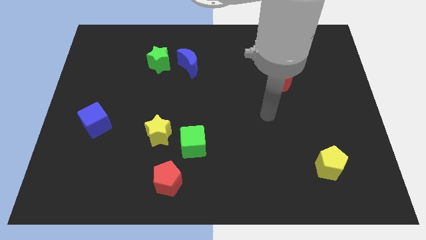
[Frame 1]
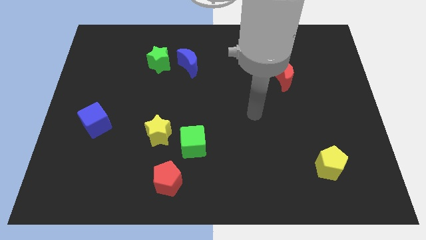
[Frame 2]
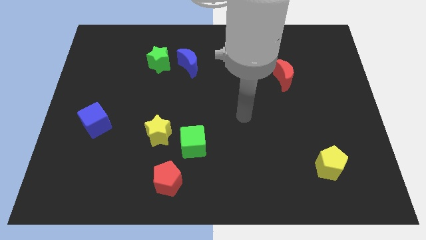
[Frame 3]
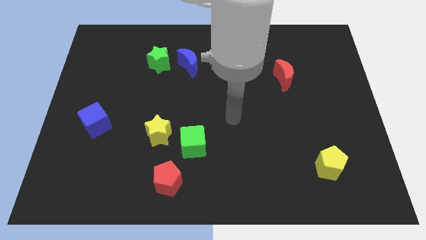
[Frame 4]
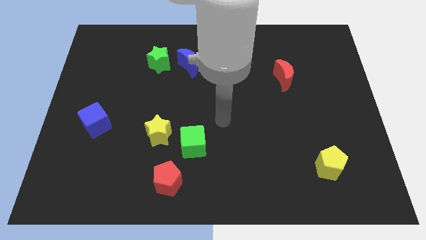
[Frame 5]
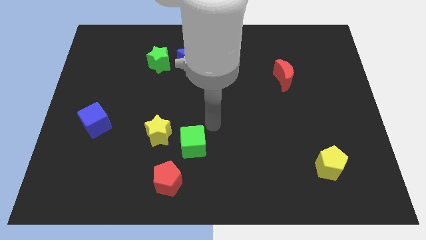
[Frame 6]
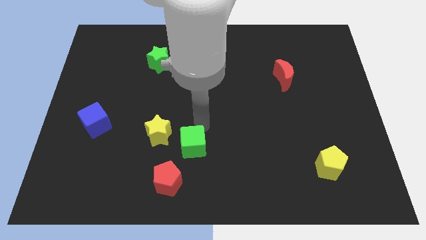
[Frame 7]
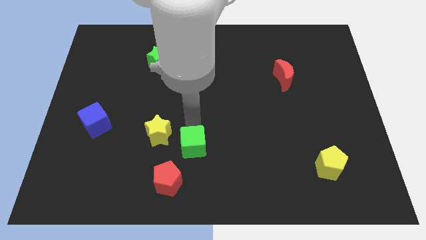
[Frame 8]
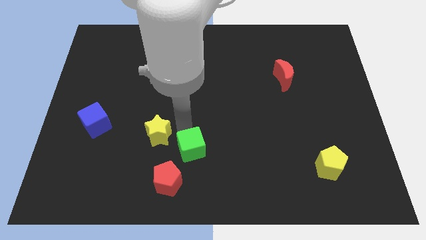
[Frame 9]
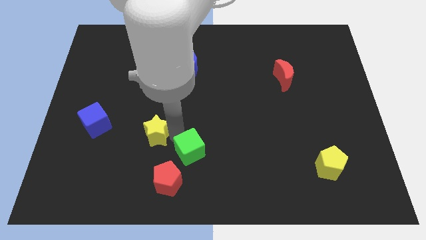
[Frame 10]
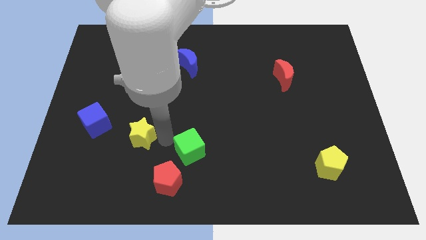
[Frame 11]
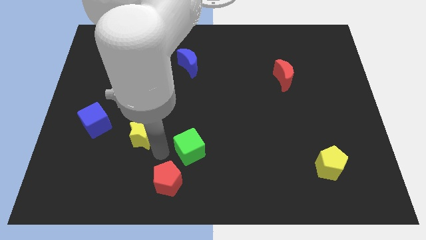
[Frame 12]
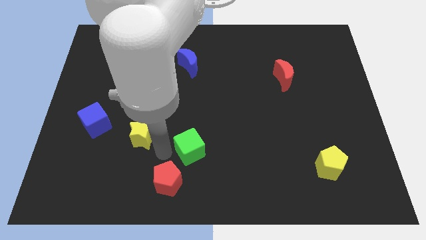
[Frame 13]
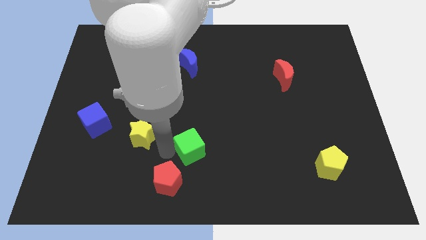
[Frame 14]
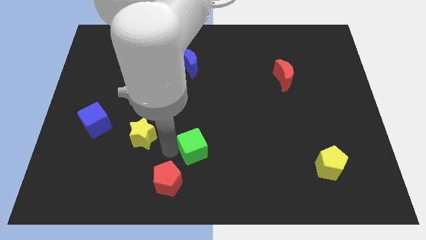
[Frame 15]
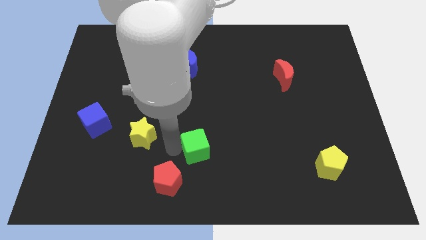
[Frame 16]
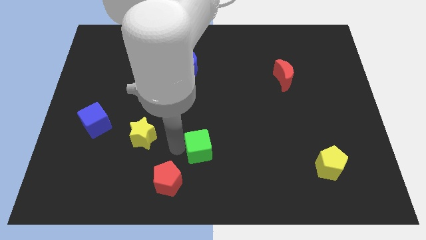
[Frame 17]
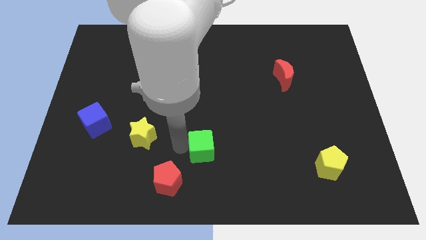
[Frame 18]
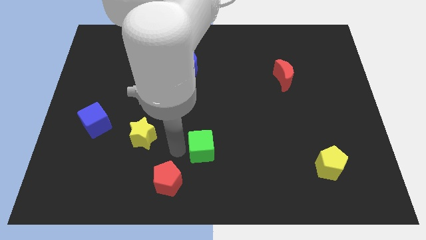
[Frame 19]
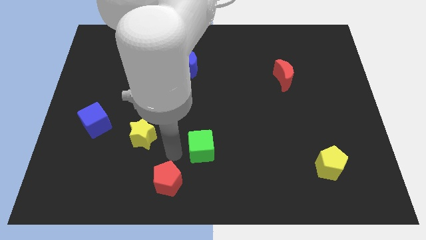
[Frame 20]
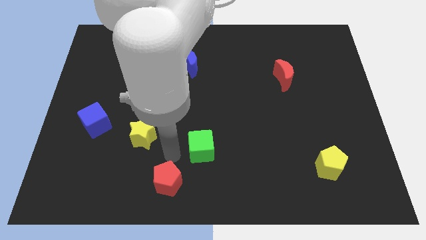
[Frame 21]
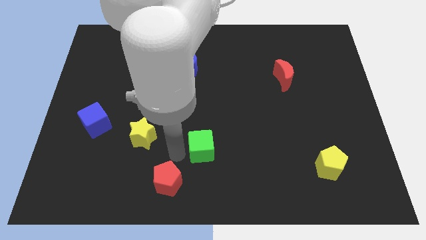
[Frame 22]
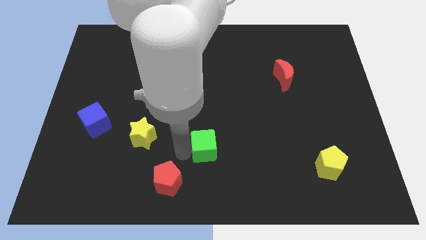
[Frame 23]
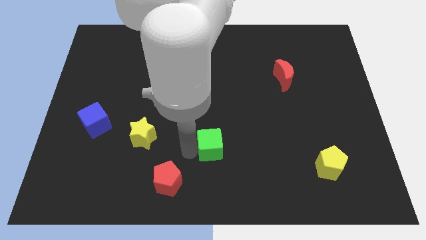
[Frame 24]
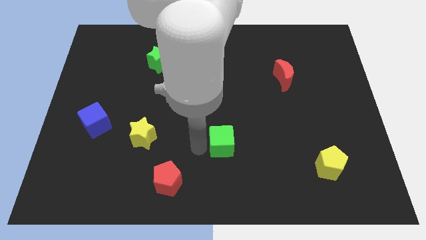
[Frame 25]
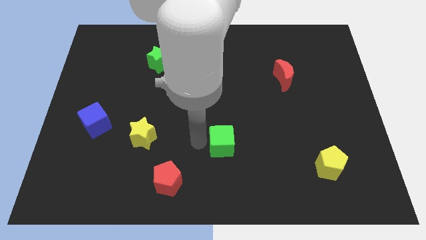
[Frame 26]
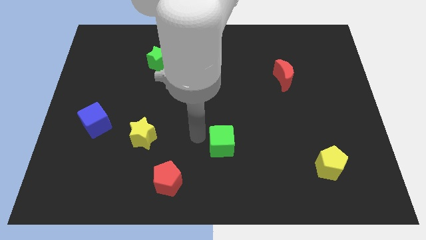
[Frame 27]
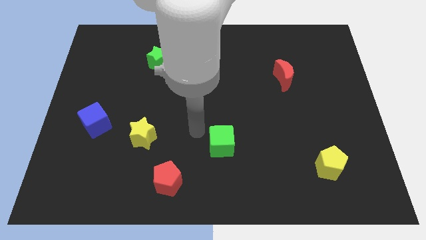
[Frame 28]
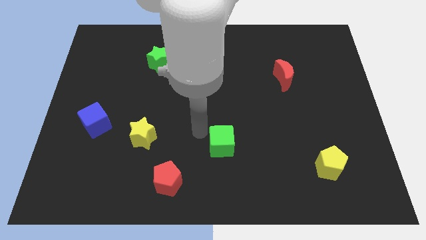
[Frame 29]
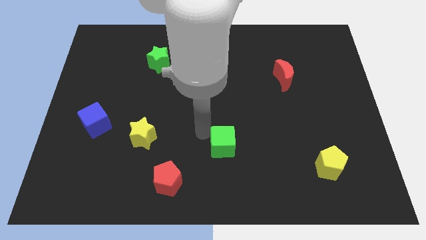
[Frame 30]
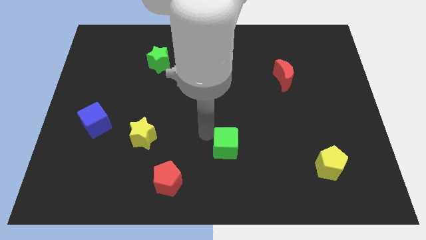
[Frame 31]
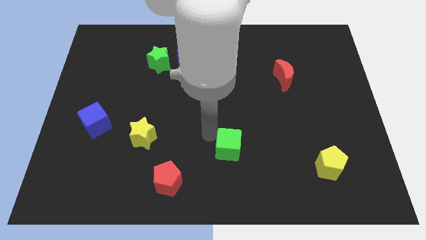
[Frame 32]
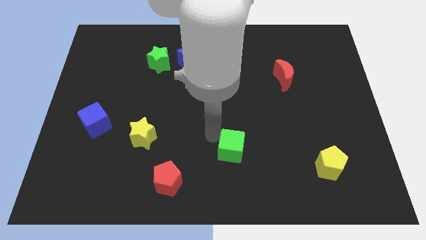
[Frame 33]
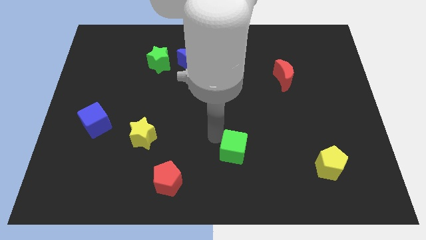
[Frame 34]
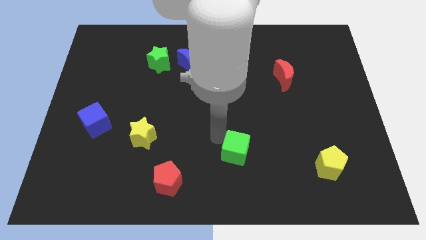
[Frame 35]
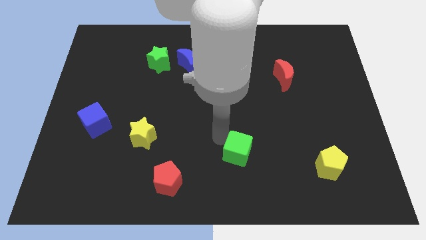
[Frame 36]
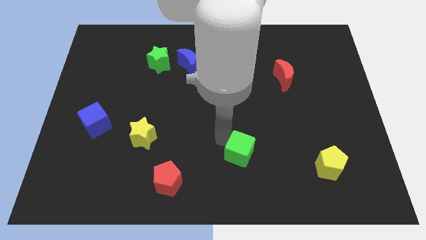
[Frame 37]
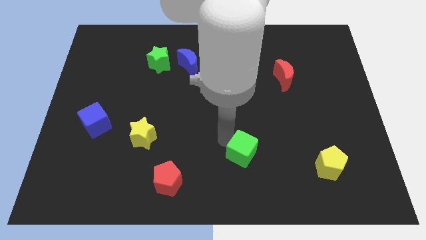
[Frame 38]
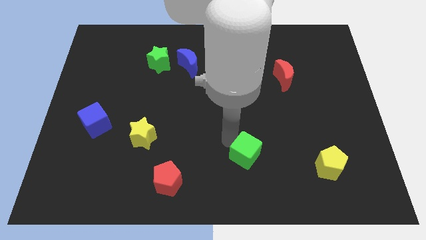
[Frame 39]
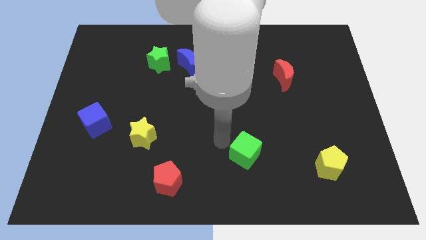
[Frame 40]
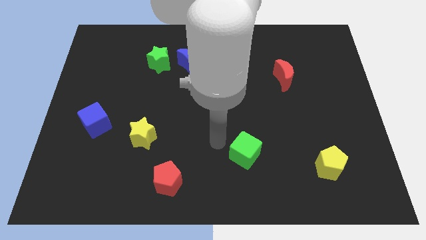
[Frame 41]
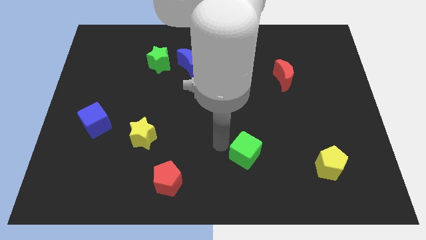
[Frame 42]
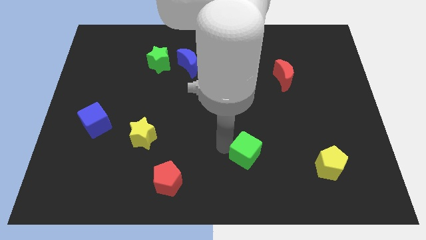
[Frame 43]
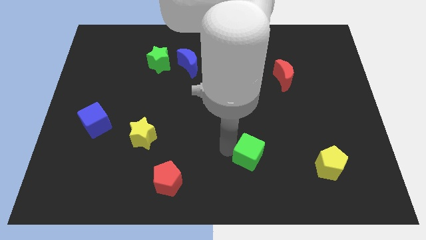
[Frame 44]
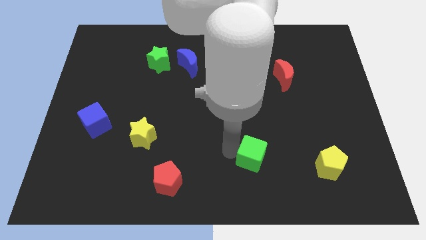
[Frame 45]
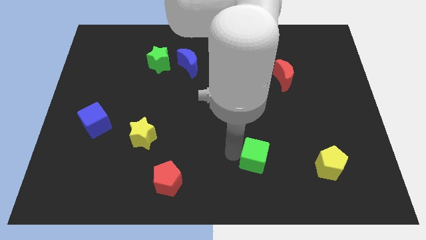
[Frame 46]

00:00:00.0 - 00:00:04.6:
push the green cube just left of the yellow pentagon

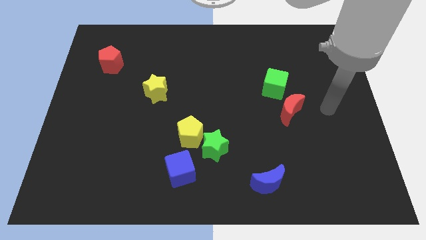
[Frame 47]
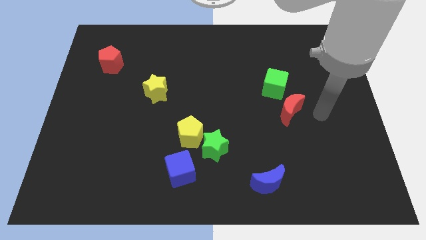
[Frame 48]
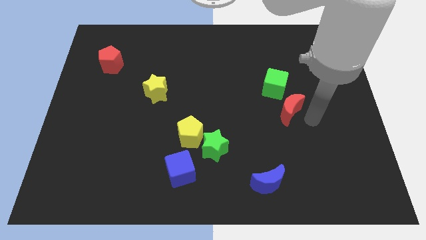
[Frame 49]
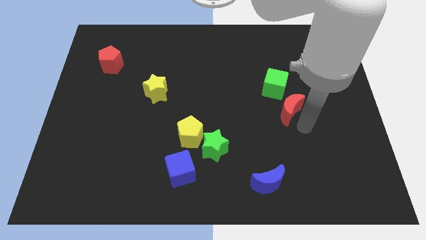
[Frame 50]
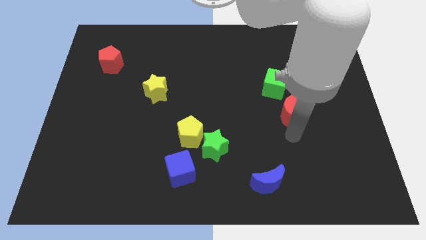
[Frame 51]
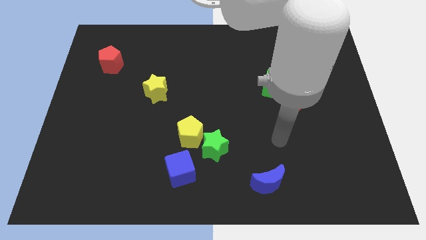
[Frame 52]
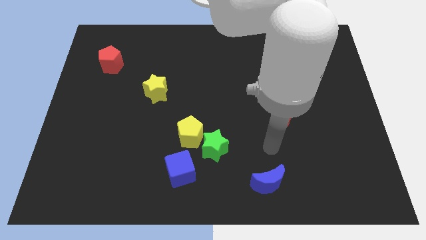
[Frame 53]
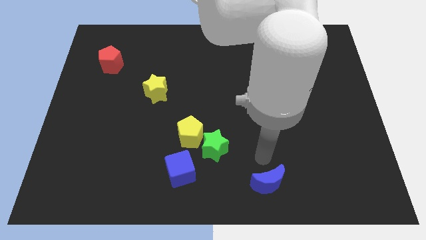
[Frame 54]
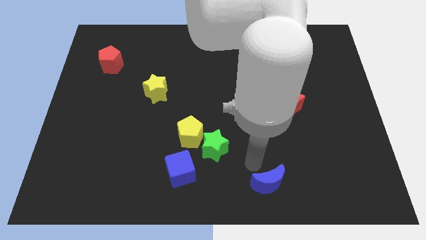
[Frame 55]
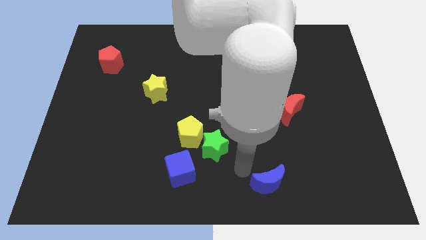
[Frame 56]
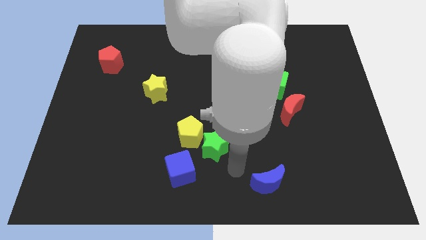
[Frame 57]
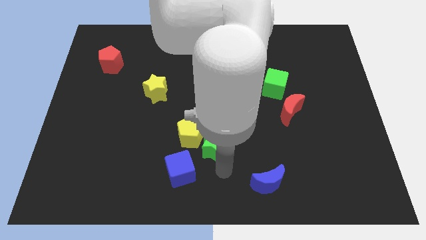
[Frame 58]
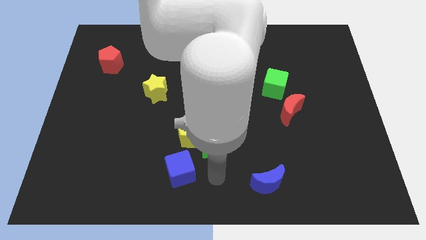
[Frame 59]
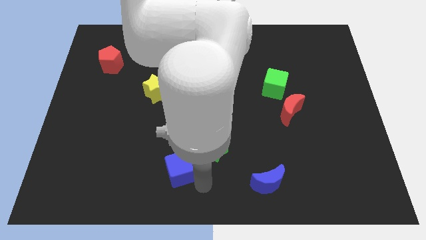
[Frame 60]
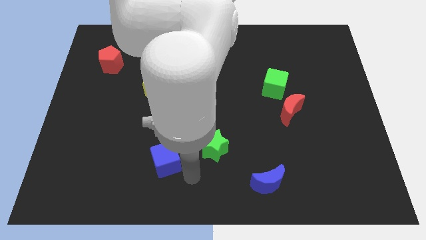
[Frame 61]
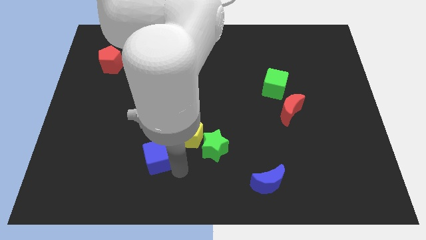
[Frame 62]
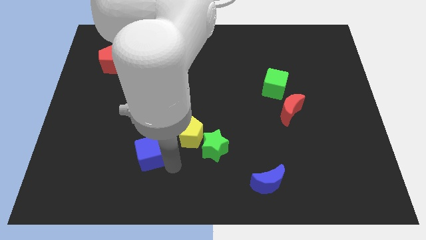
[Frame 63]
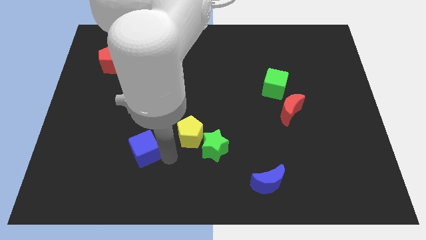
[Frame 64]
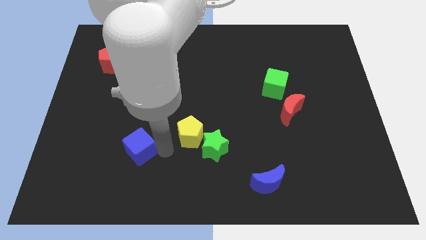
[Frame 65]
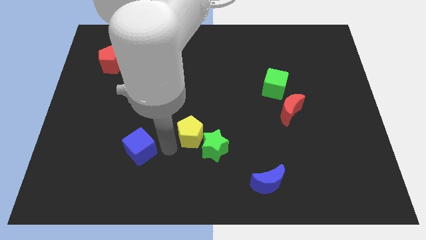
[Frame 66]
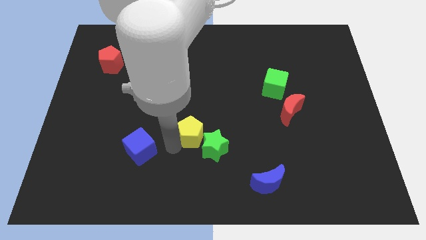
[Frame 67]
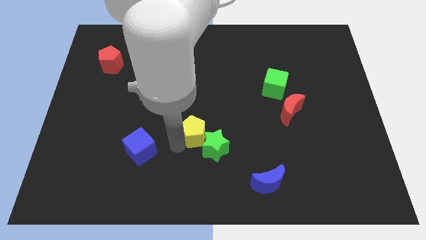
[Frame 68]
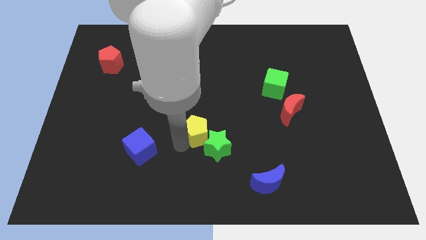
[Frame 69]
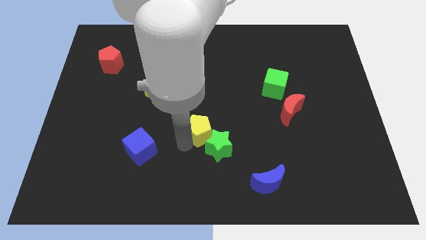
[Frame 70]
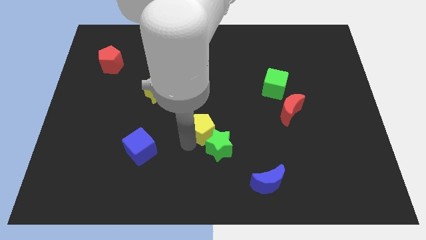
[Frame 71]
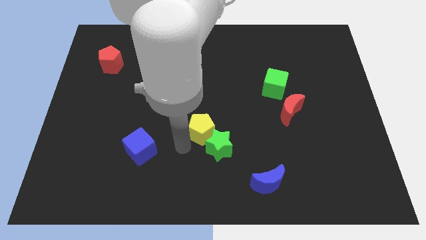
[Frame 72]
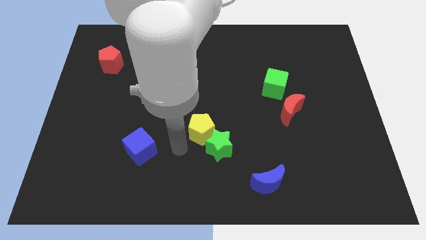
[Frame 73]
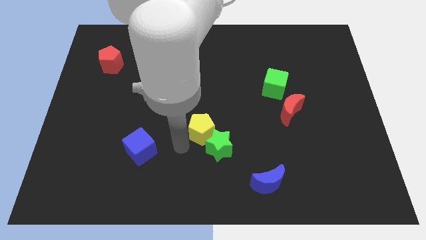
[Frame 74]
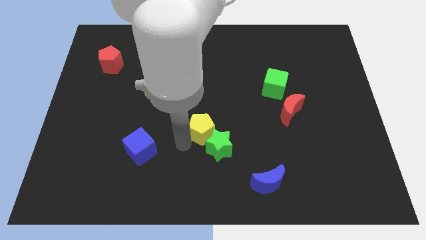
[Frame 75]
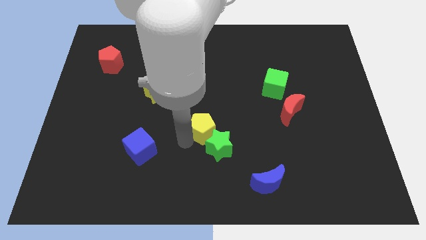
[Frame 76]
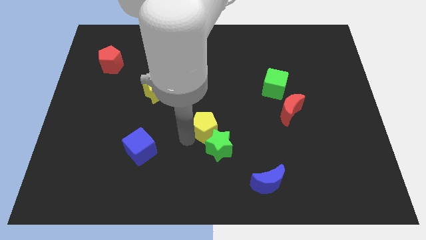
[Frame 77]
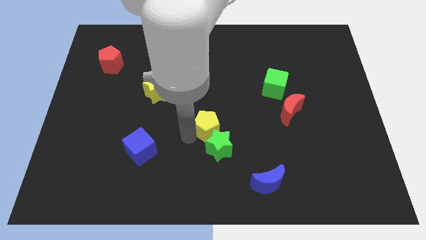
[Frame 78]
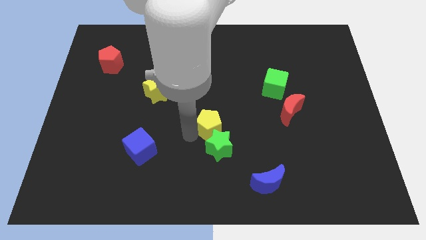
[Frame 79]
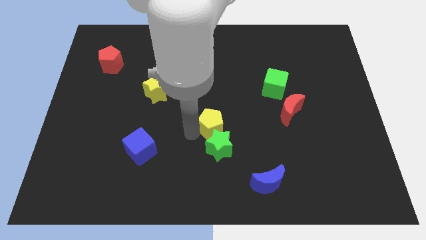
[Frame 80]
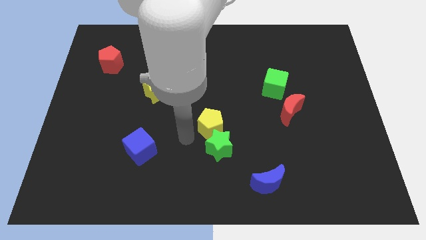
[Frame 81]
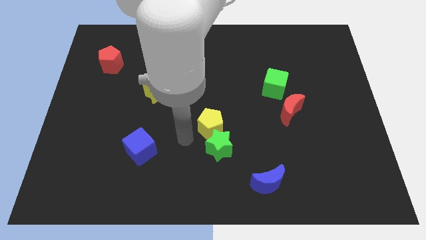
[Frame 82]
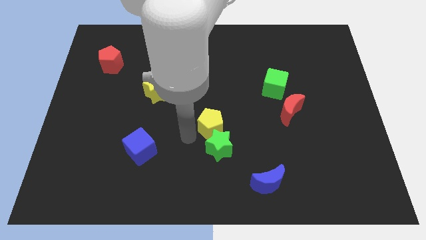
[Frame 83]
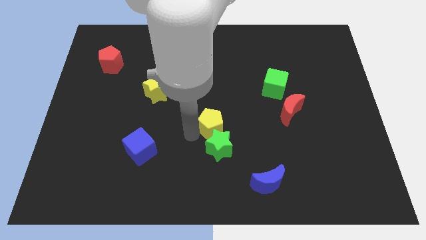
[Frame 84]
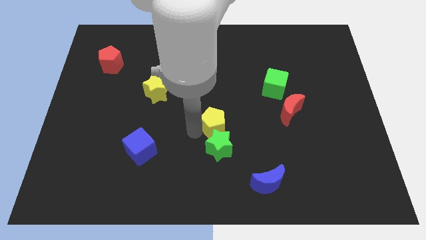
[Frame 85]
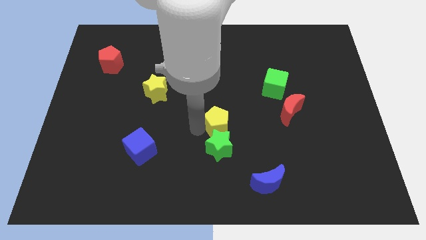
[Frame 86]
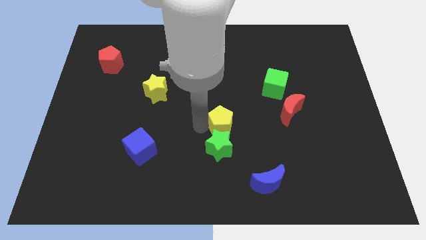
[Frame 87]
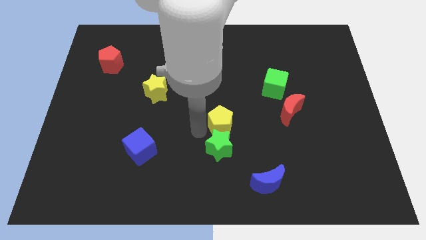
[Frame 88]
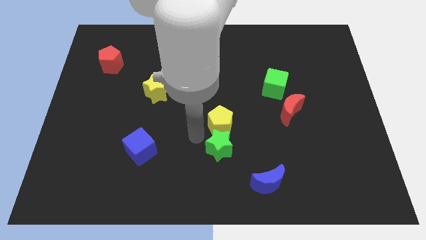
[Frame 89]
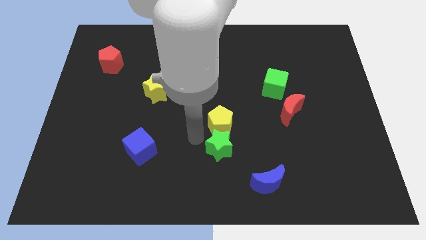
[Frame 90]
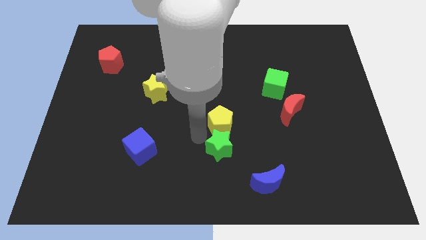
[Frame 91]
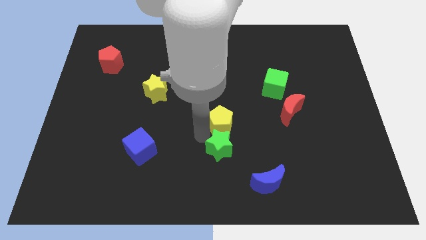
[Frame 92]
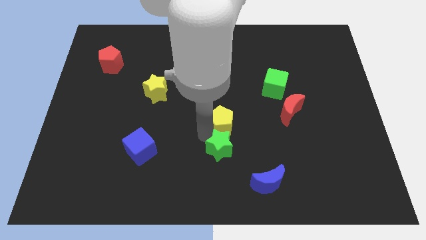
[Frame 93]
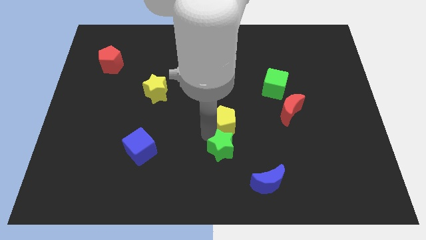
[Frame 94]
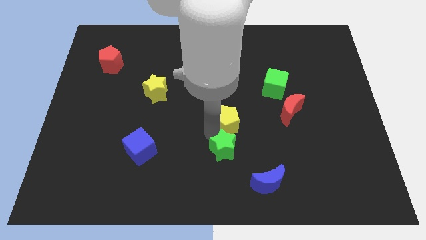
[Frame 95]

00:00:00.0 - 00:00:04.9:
move the yellow pentagon just left of the red moon
